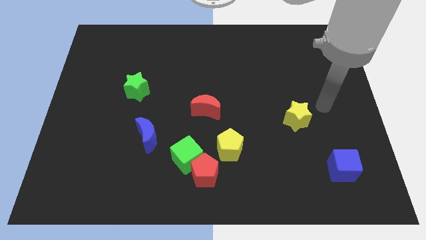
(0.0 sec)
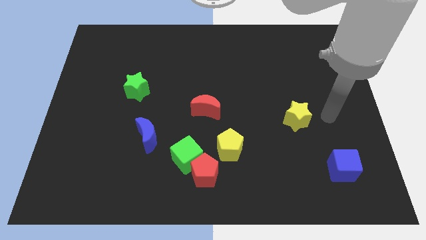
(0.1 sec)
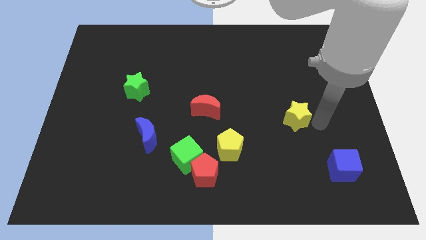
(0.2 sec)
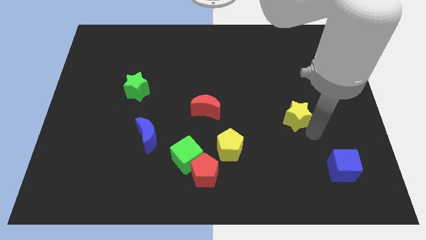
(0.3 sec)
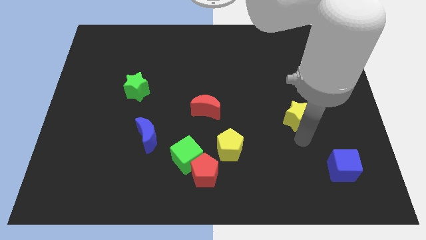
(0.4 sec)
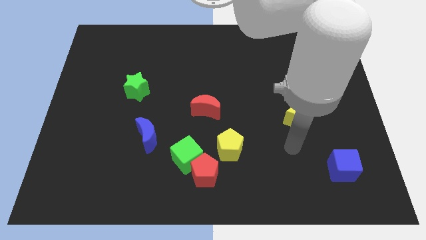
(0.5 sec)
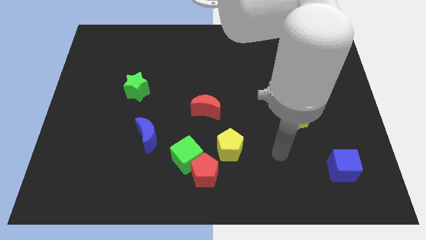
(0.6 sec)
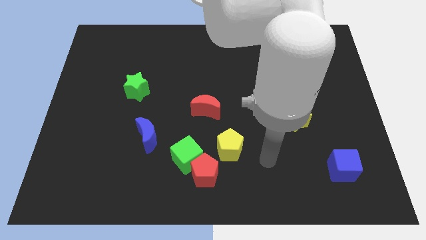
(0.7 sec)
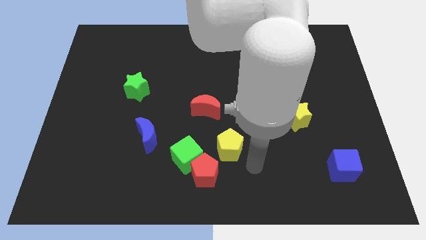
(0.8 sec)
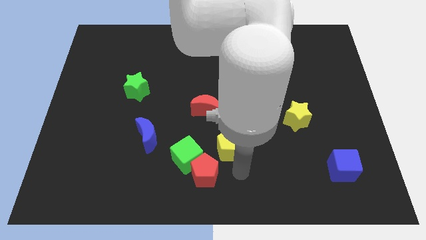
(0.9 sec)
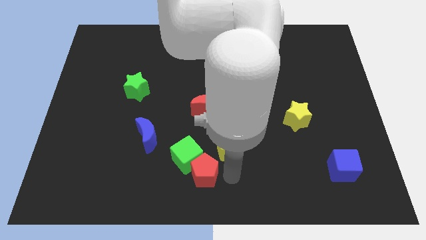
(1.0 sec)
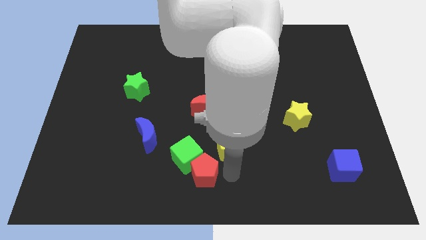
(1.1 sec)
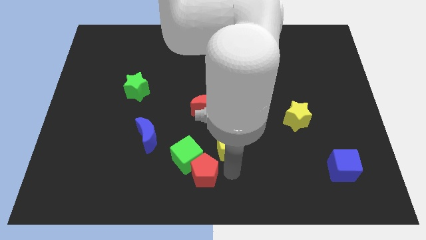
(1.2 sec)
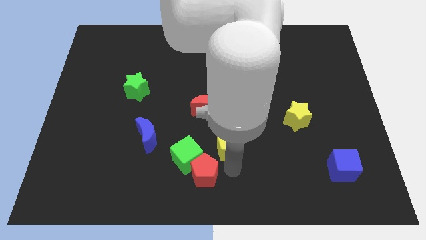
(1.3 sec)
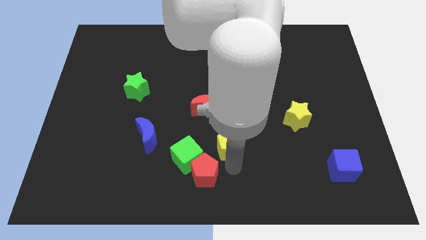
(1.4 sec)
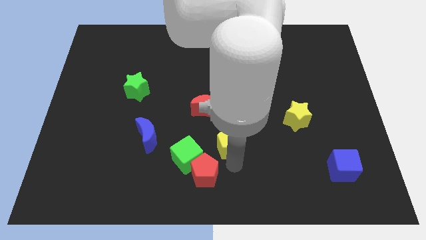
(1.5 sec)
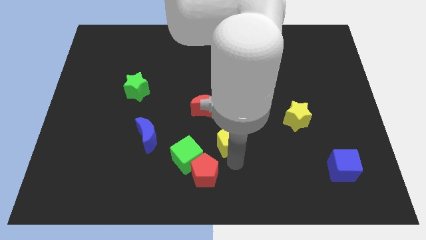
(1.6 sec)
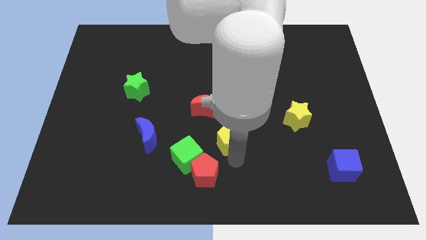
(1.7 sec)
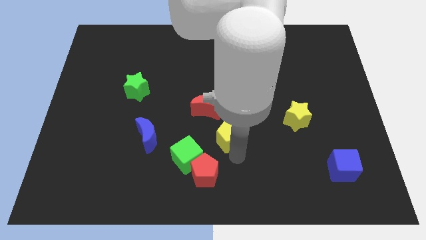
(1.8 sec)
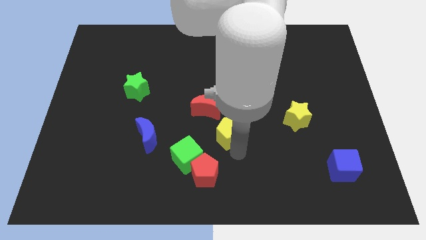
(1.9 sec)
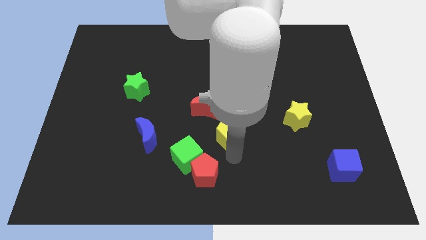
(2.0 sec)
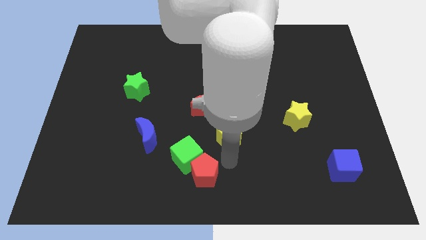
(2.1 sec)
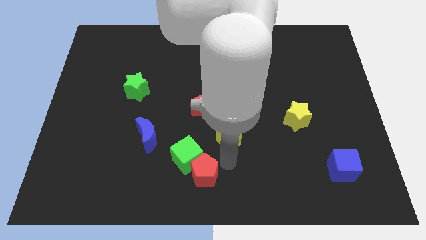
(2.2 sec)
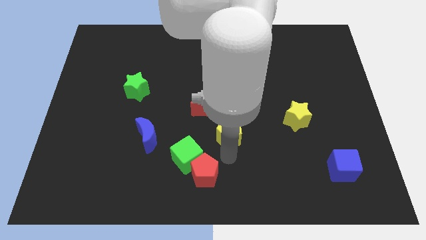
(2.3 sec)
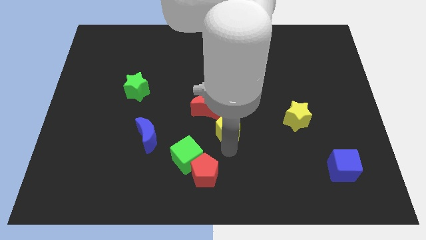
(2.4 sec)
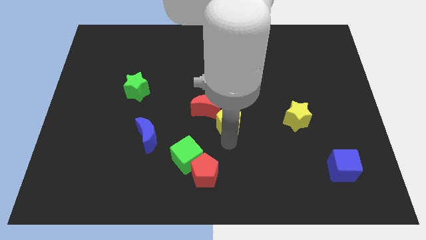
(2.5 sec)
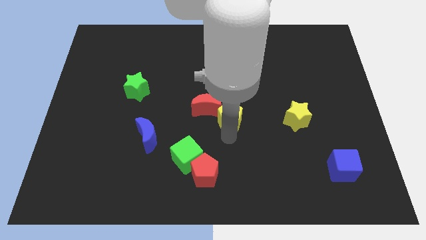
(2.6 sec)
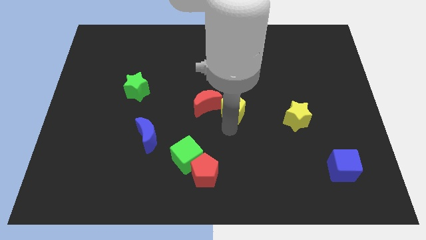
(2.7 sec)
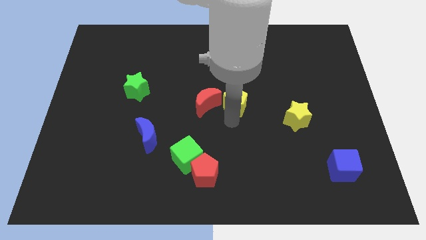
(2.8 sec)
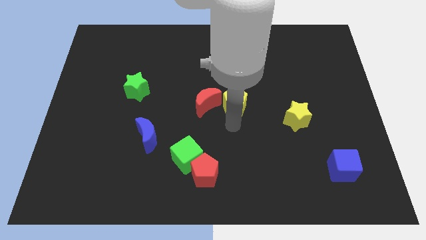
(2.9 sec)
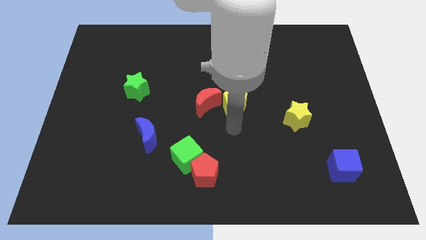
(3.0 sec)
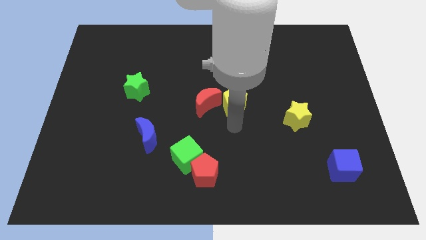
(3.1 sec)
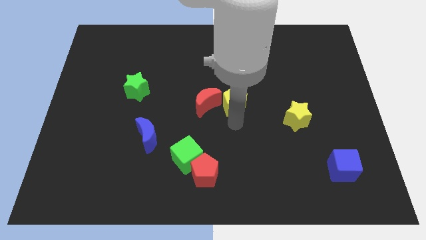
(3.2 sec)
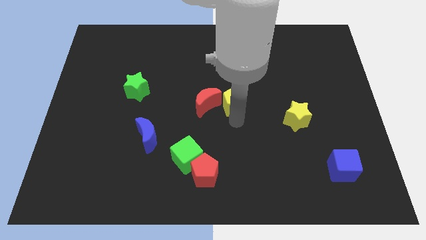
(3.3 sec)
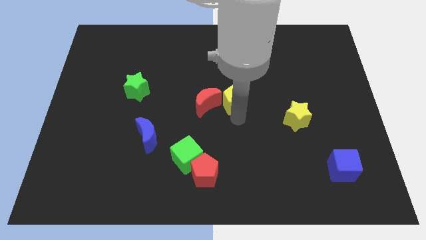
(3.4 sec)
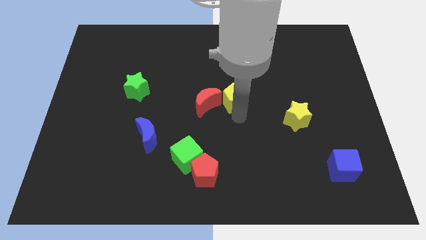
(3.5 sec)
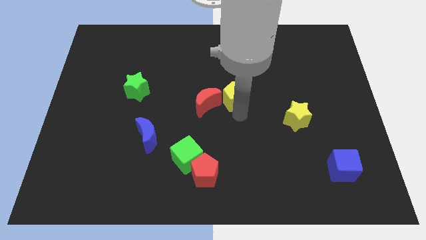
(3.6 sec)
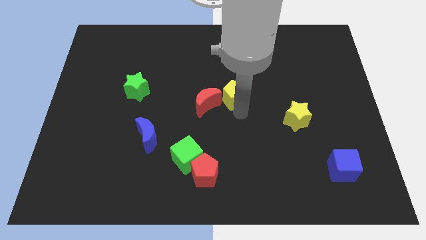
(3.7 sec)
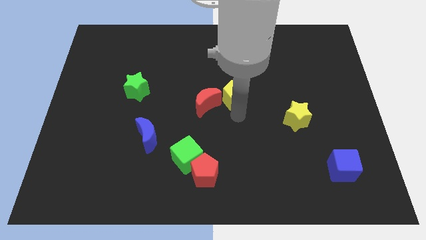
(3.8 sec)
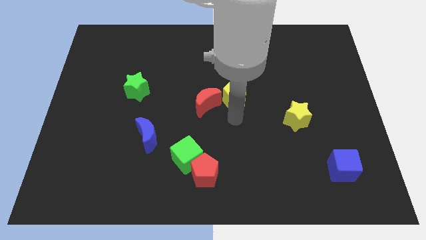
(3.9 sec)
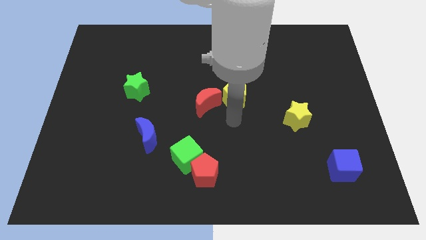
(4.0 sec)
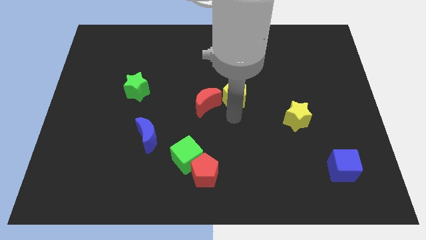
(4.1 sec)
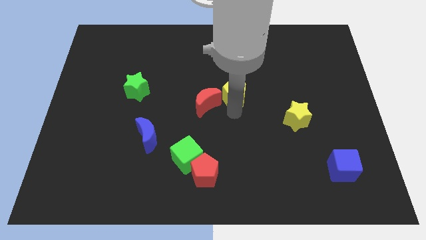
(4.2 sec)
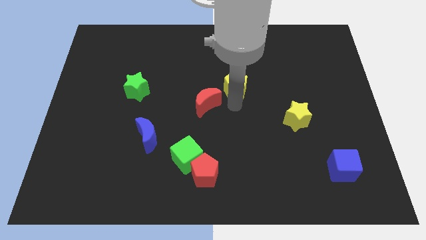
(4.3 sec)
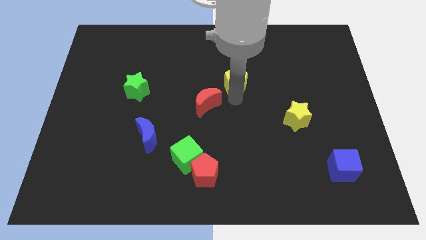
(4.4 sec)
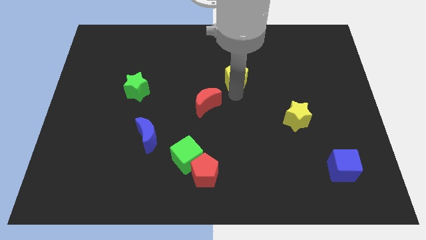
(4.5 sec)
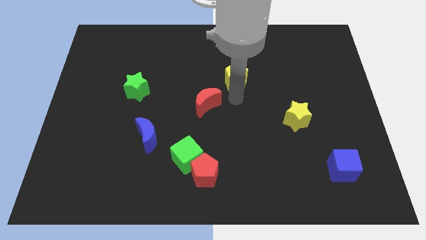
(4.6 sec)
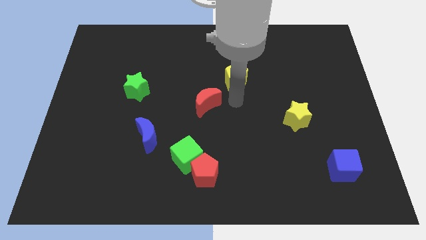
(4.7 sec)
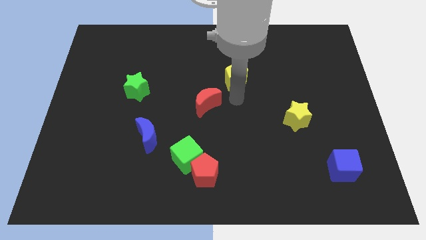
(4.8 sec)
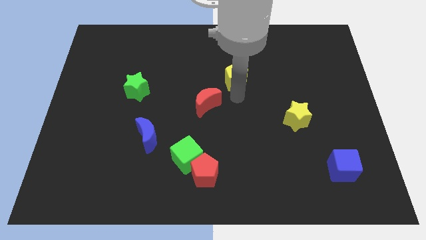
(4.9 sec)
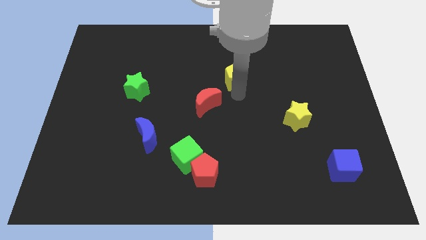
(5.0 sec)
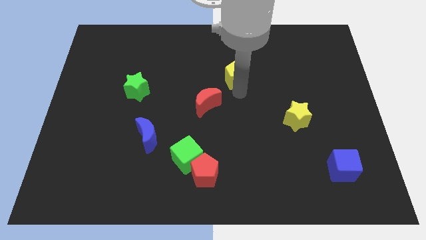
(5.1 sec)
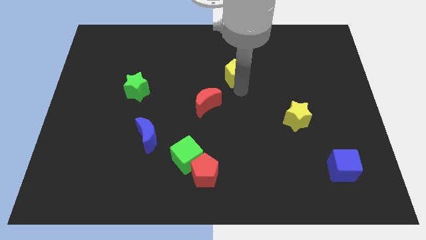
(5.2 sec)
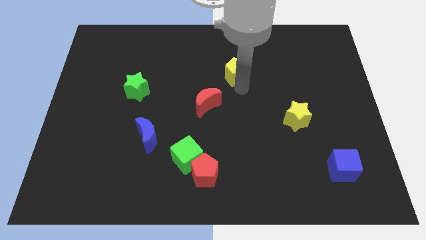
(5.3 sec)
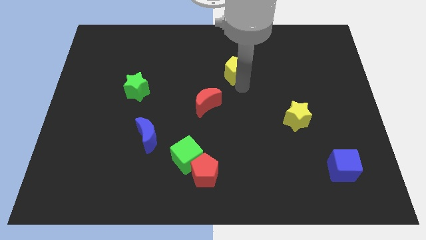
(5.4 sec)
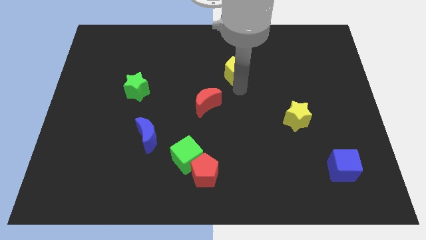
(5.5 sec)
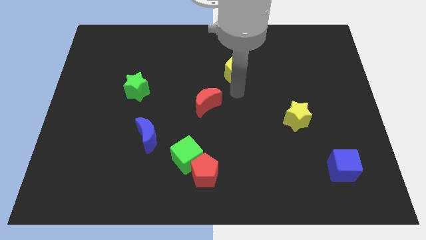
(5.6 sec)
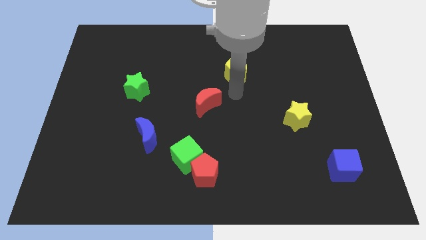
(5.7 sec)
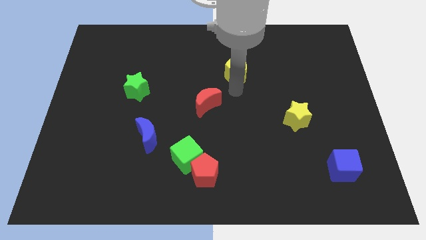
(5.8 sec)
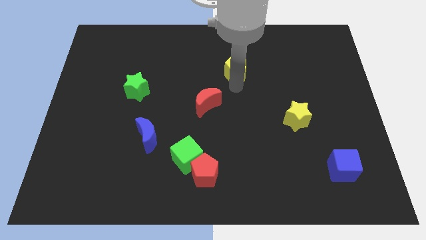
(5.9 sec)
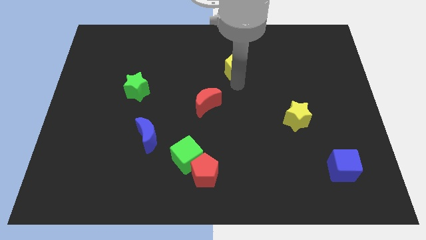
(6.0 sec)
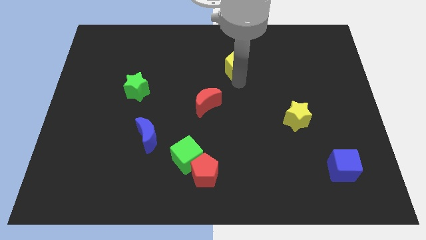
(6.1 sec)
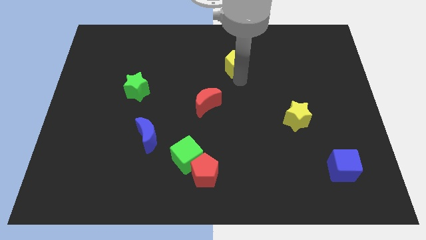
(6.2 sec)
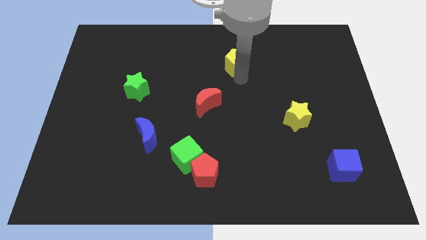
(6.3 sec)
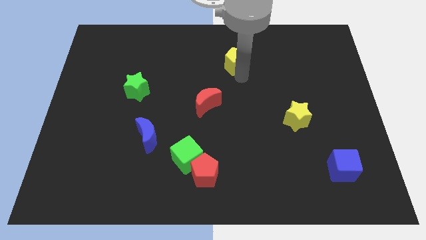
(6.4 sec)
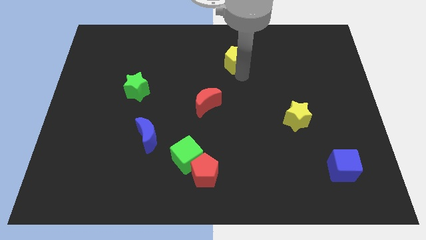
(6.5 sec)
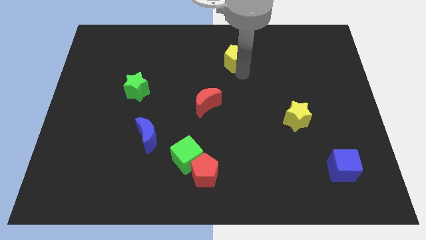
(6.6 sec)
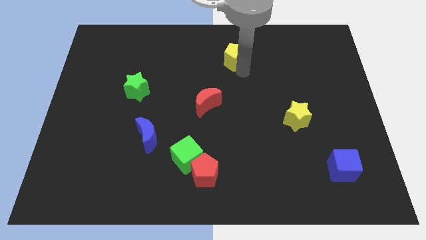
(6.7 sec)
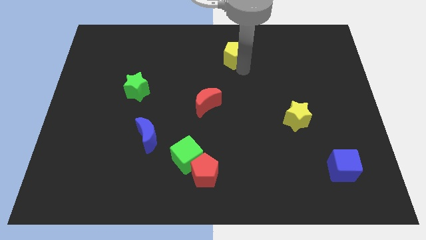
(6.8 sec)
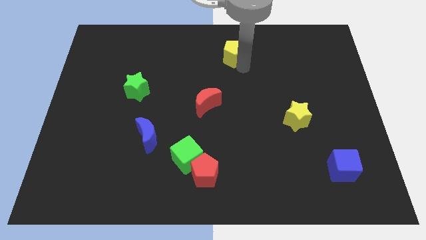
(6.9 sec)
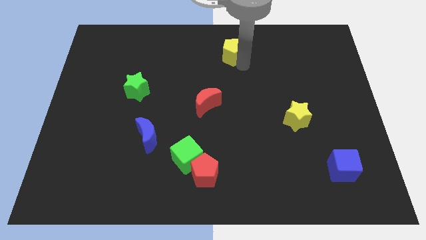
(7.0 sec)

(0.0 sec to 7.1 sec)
put the yellow pentagon to the top
